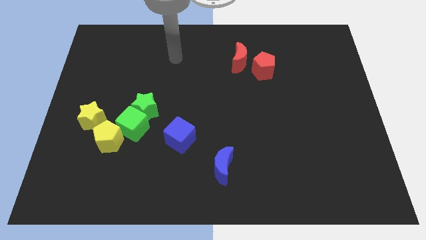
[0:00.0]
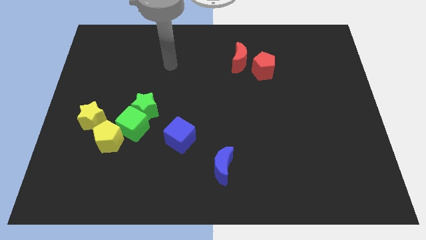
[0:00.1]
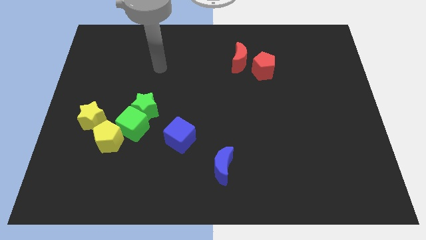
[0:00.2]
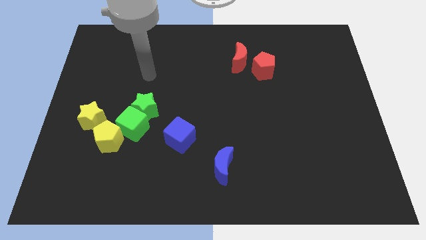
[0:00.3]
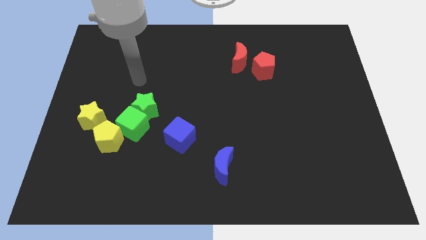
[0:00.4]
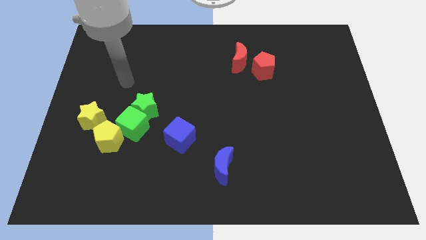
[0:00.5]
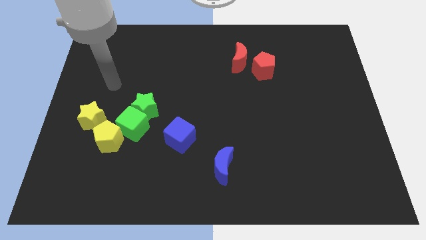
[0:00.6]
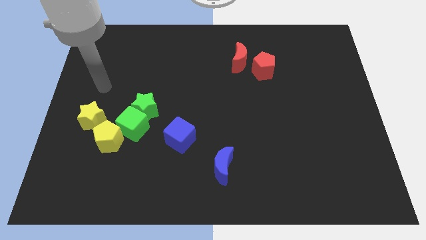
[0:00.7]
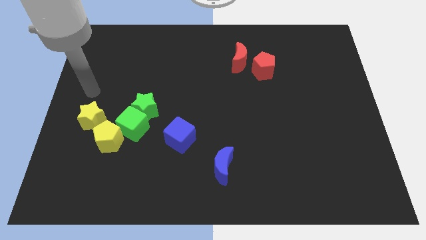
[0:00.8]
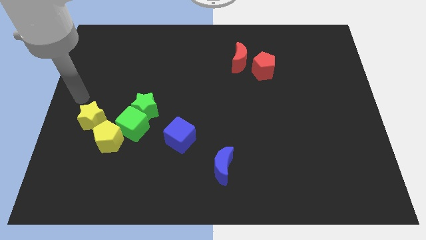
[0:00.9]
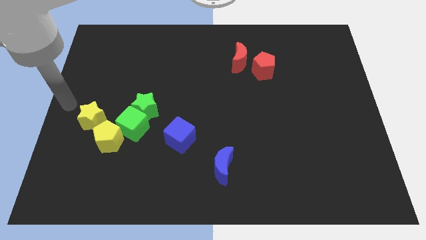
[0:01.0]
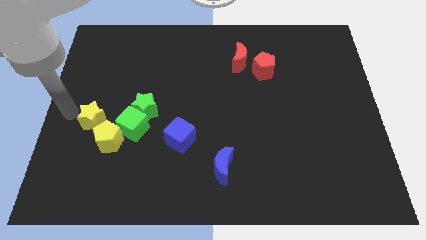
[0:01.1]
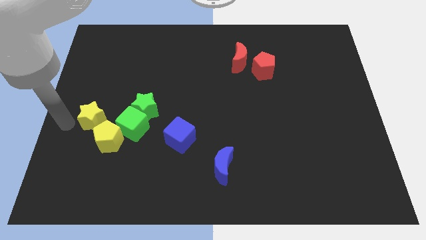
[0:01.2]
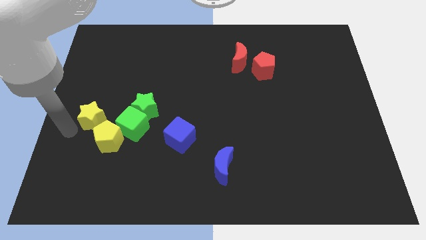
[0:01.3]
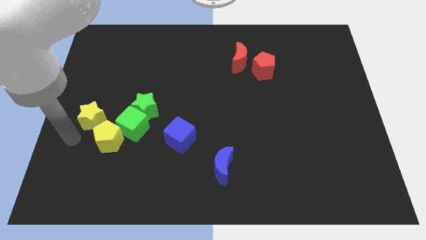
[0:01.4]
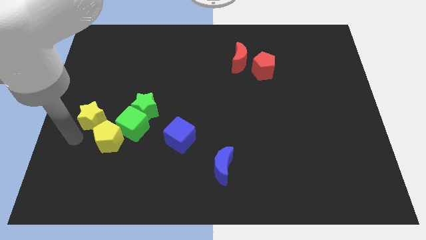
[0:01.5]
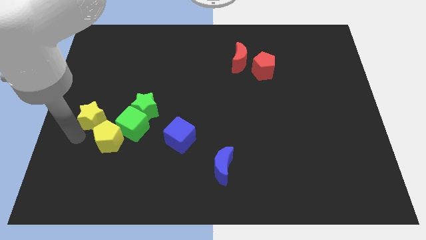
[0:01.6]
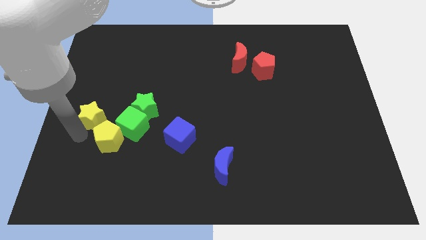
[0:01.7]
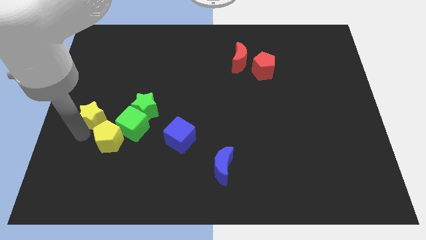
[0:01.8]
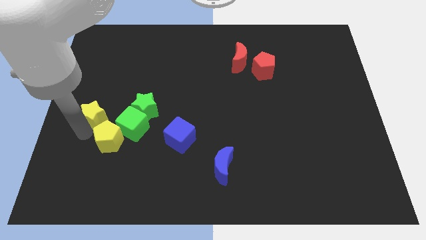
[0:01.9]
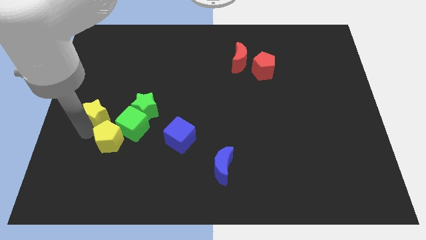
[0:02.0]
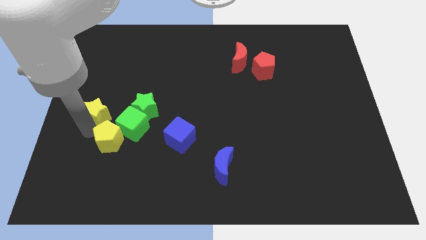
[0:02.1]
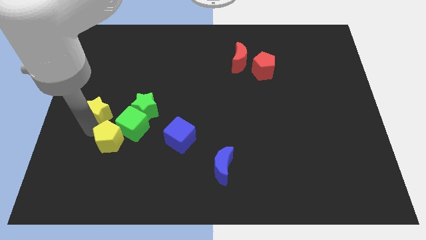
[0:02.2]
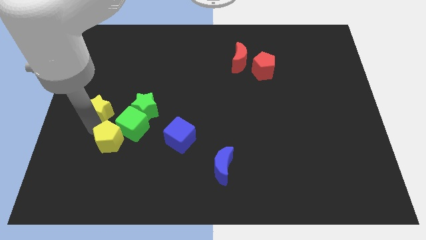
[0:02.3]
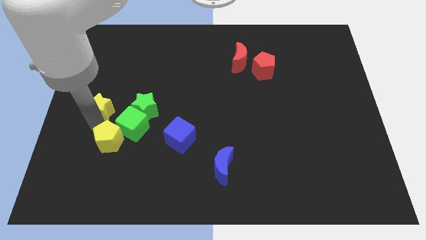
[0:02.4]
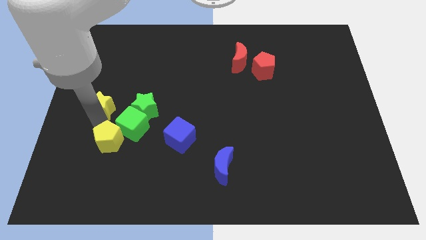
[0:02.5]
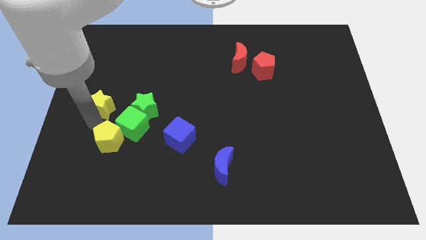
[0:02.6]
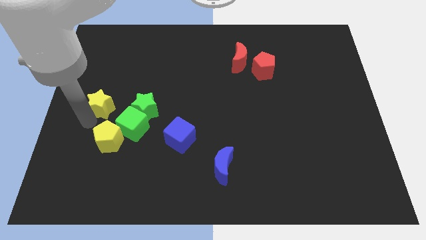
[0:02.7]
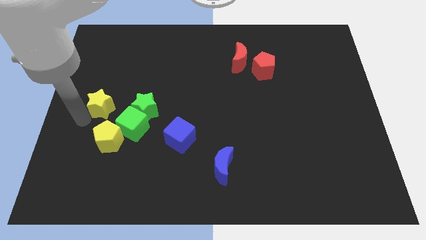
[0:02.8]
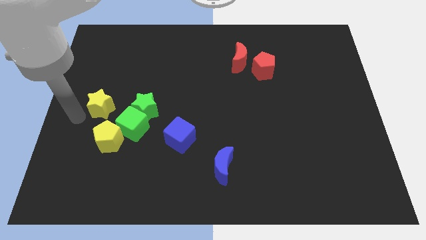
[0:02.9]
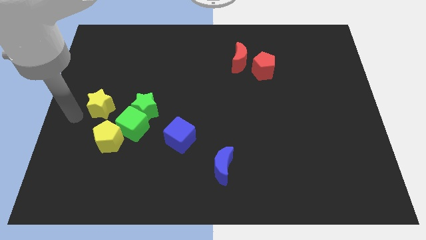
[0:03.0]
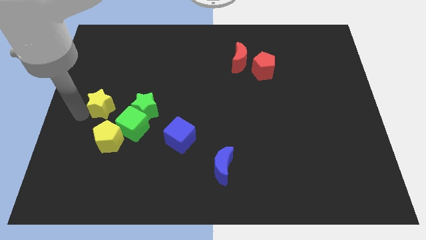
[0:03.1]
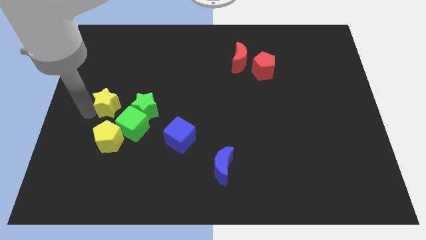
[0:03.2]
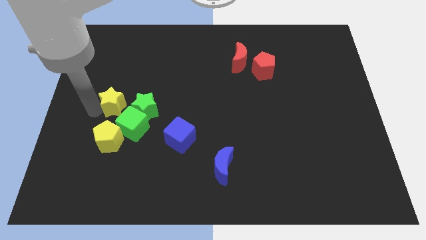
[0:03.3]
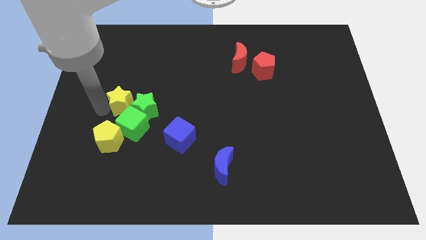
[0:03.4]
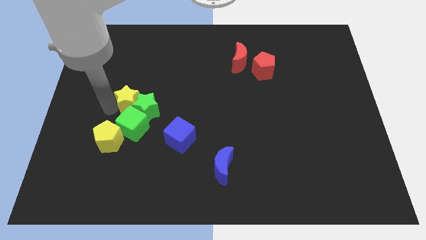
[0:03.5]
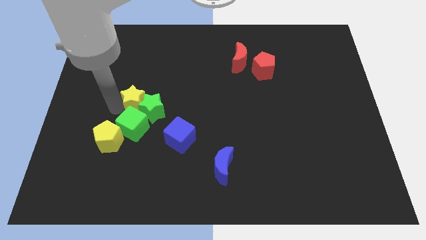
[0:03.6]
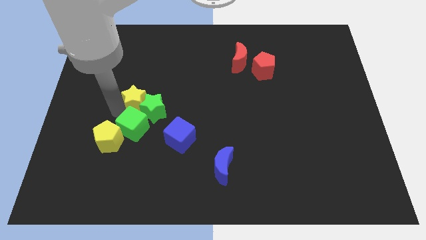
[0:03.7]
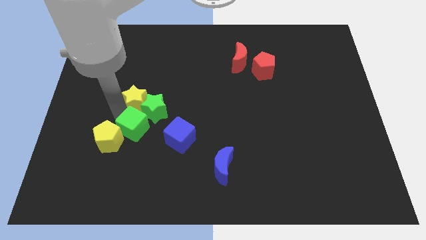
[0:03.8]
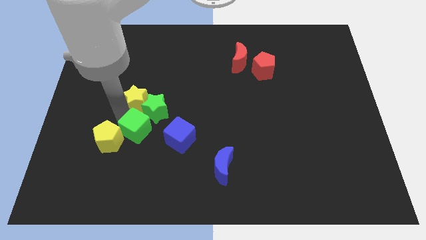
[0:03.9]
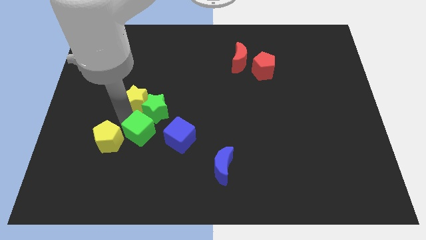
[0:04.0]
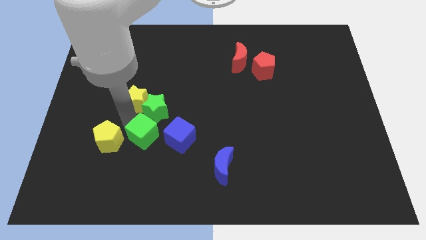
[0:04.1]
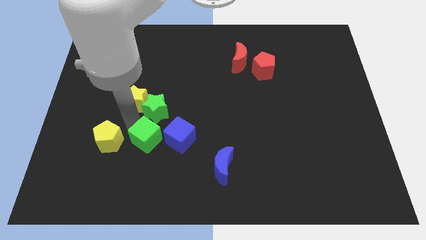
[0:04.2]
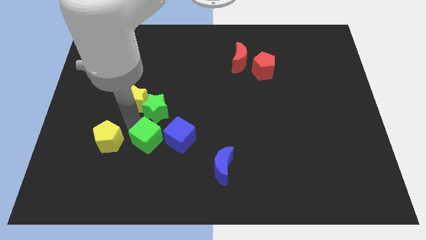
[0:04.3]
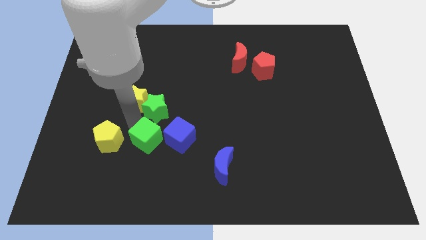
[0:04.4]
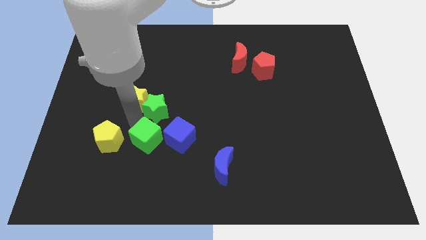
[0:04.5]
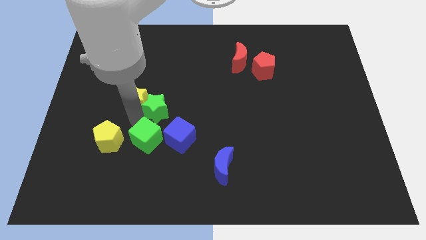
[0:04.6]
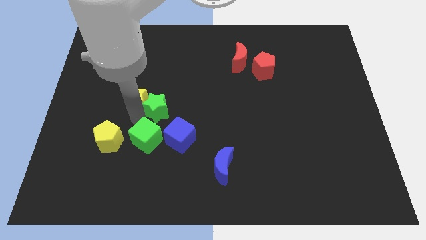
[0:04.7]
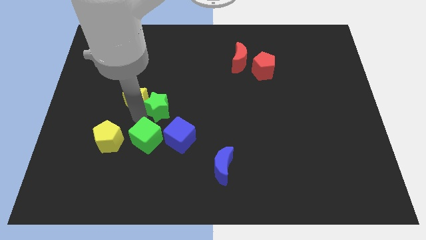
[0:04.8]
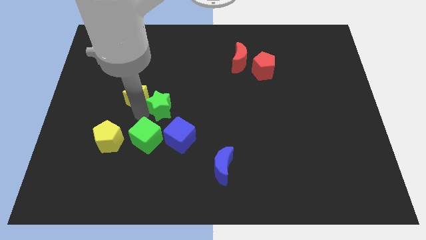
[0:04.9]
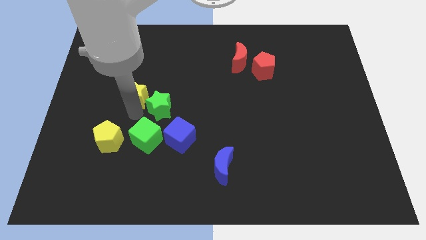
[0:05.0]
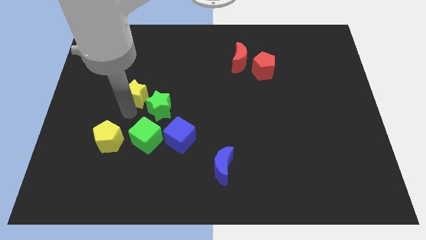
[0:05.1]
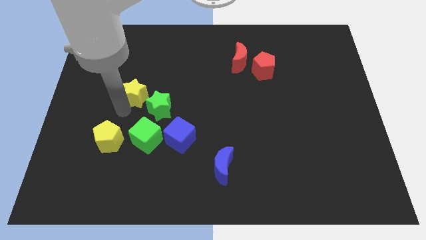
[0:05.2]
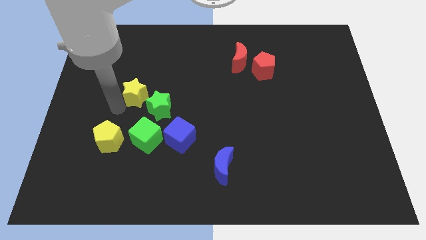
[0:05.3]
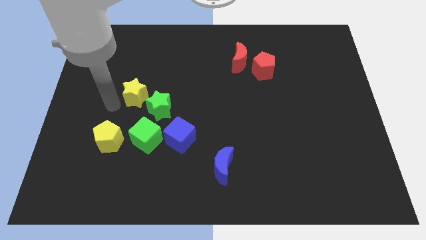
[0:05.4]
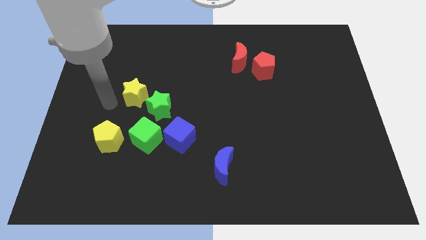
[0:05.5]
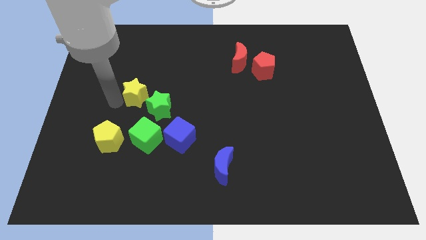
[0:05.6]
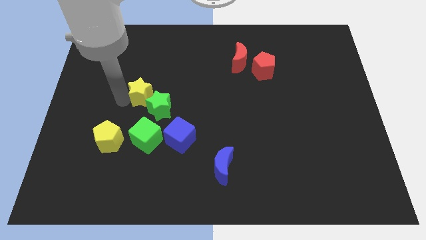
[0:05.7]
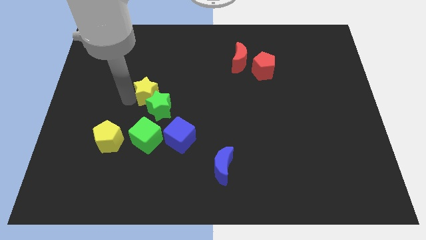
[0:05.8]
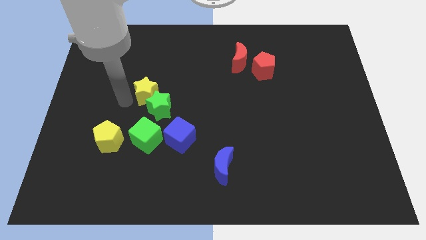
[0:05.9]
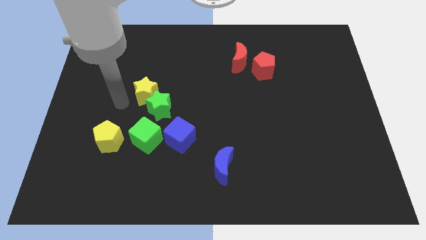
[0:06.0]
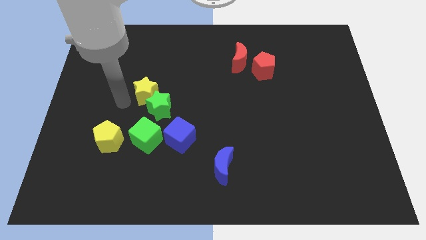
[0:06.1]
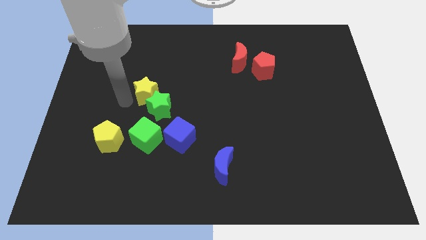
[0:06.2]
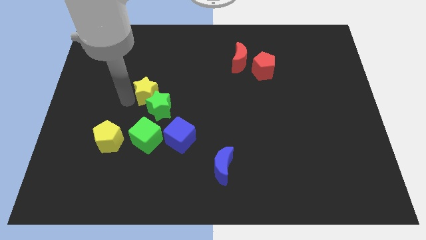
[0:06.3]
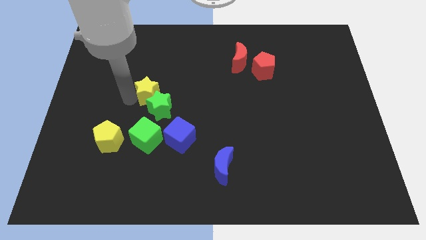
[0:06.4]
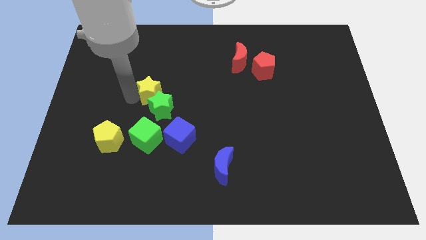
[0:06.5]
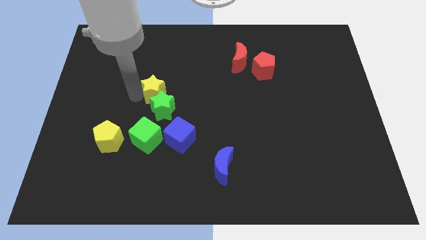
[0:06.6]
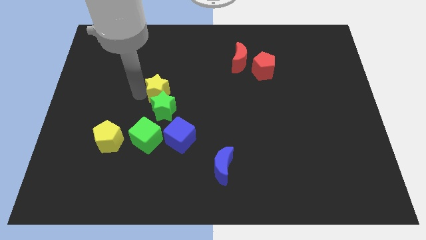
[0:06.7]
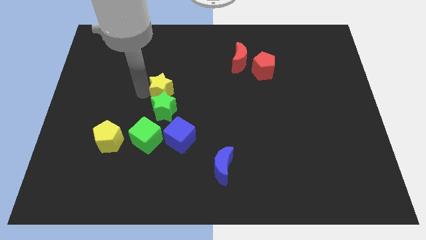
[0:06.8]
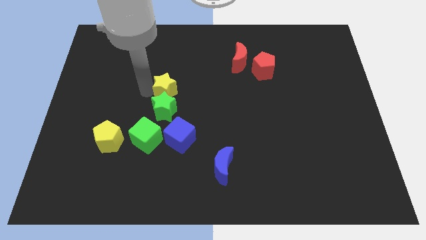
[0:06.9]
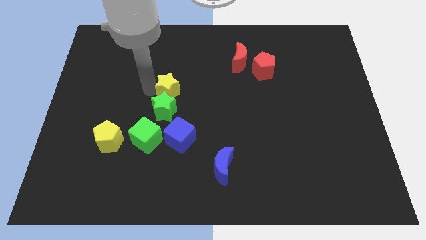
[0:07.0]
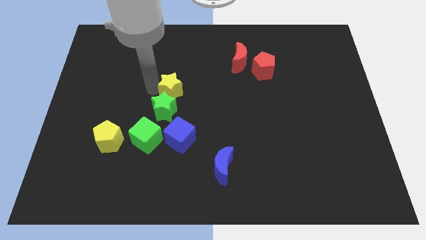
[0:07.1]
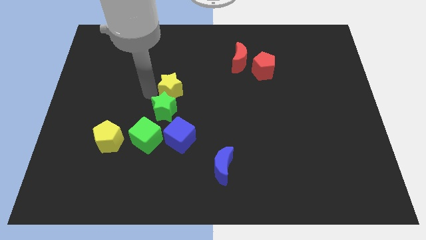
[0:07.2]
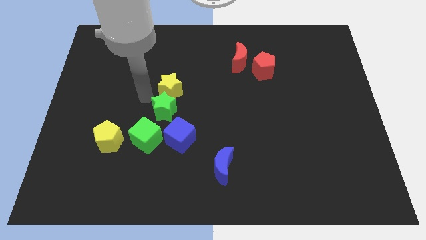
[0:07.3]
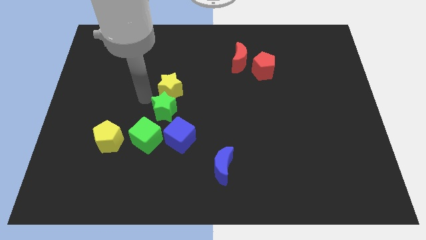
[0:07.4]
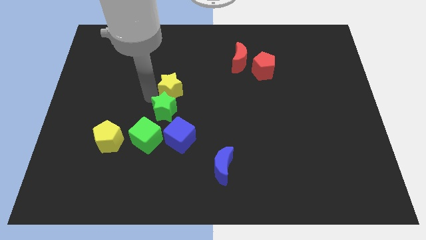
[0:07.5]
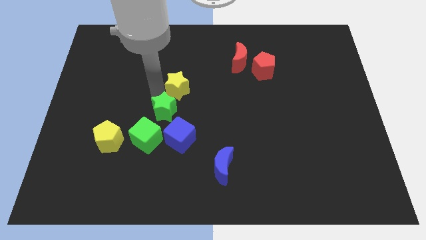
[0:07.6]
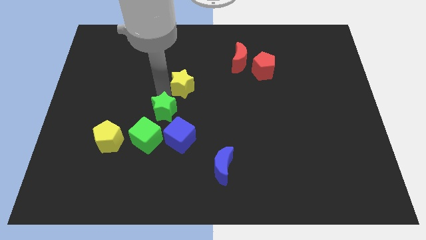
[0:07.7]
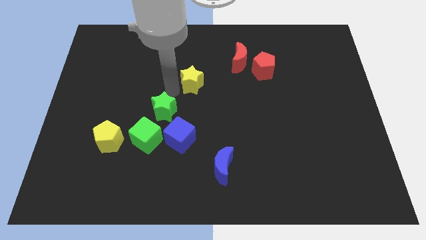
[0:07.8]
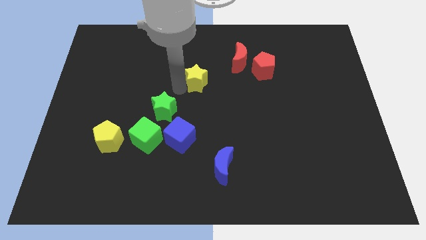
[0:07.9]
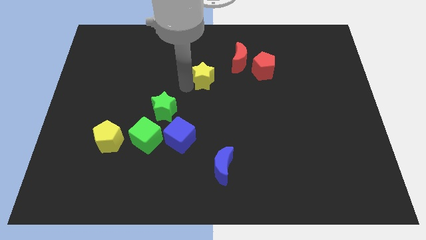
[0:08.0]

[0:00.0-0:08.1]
slide the yellow star diagonally down and to the left of the red moon
